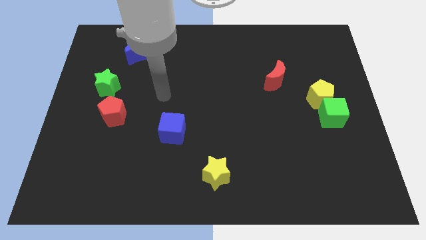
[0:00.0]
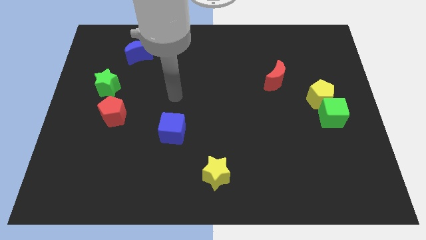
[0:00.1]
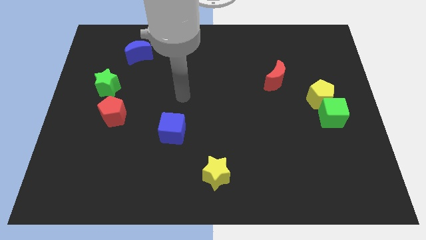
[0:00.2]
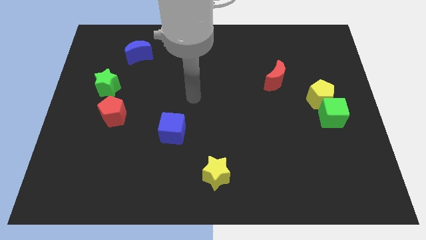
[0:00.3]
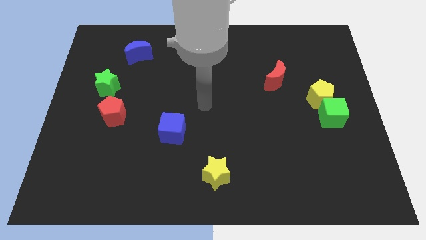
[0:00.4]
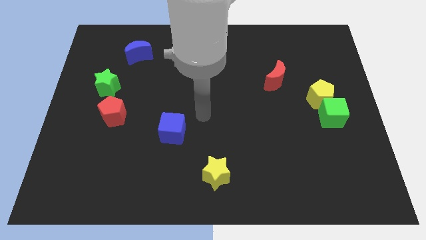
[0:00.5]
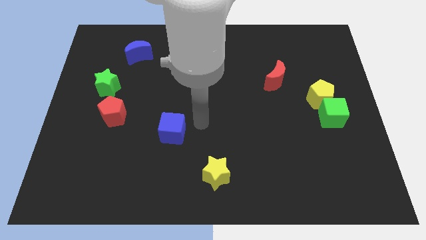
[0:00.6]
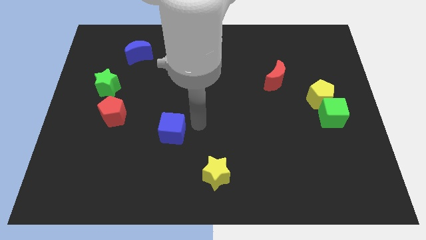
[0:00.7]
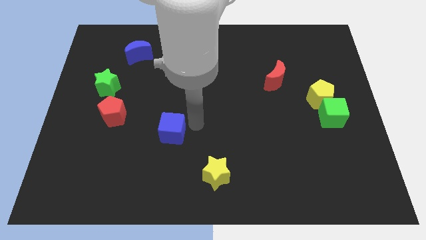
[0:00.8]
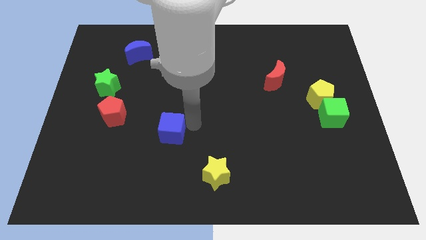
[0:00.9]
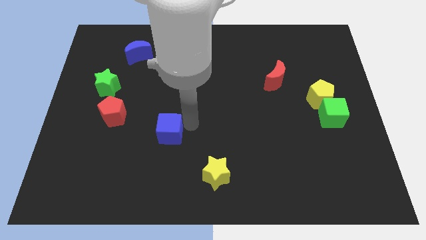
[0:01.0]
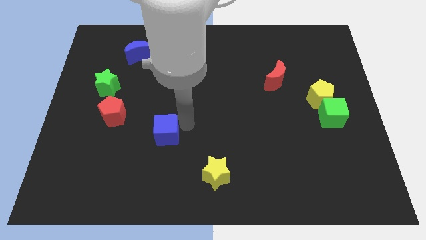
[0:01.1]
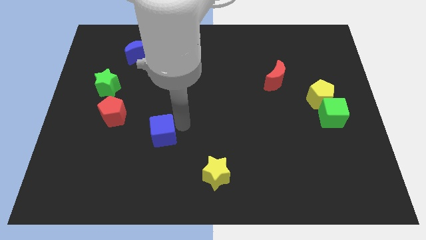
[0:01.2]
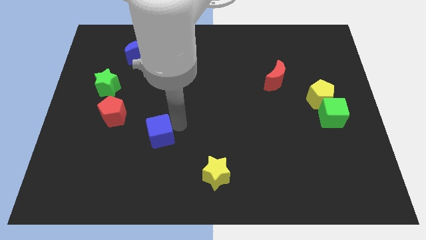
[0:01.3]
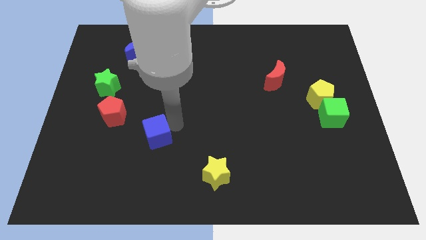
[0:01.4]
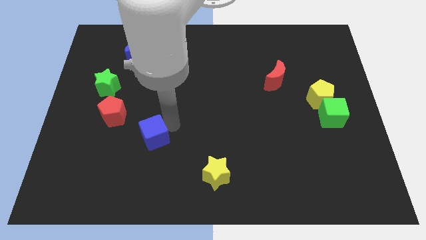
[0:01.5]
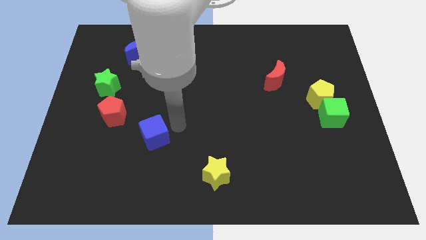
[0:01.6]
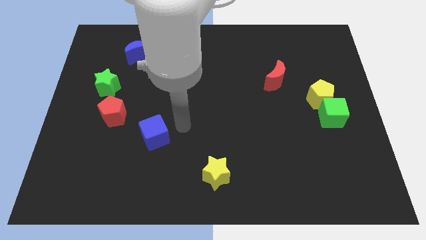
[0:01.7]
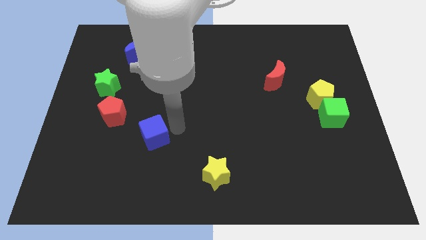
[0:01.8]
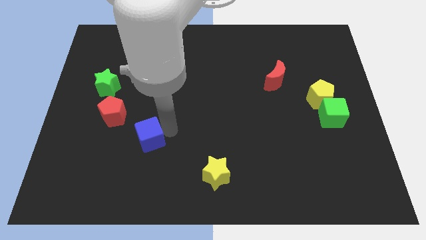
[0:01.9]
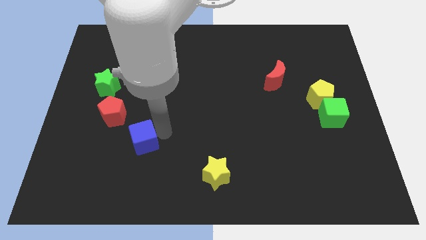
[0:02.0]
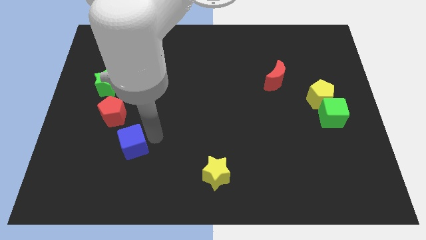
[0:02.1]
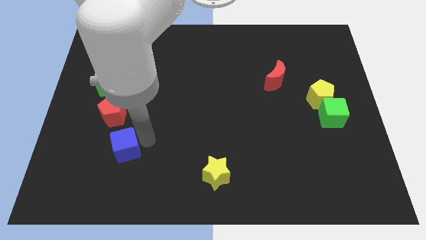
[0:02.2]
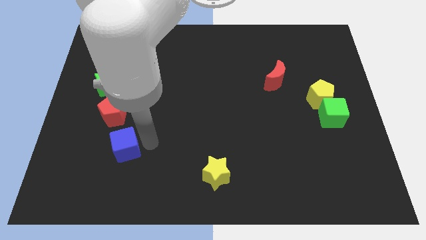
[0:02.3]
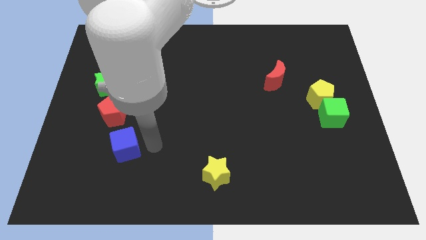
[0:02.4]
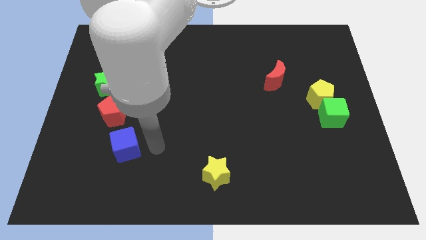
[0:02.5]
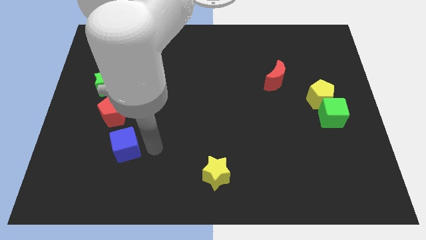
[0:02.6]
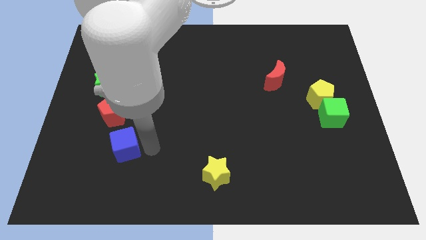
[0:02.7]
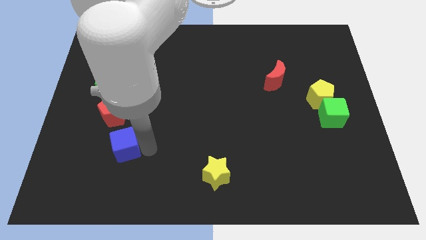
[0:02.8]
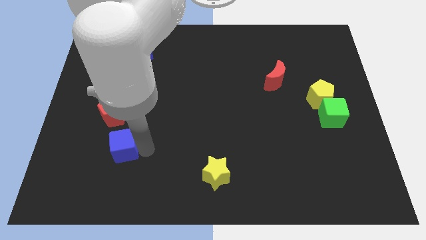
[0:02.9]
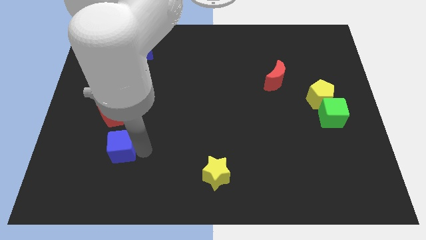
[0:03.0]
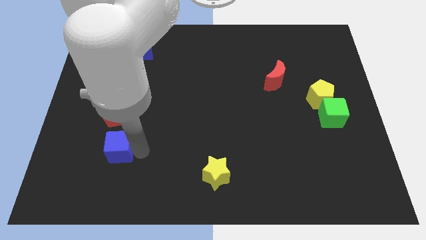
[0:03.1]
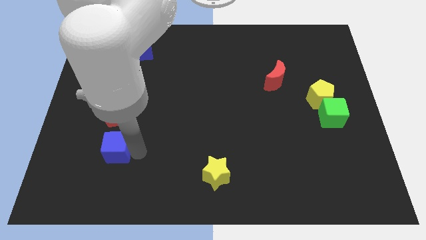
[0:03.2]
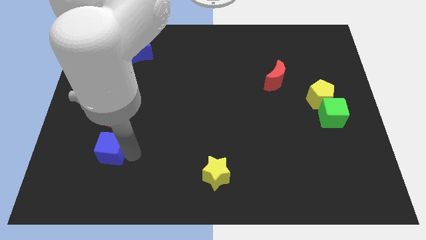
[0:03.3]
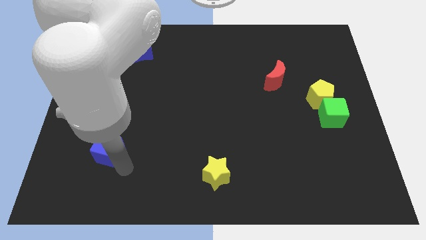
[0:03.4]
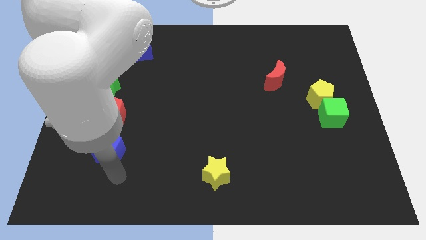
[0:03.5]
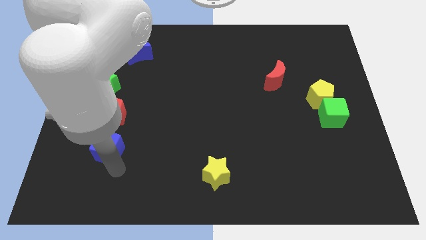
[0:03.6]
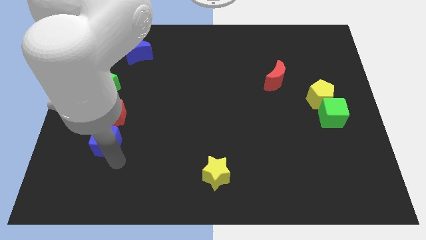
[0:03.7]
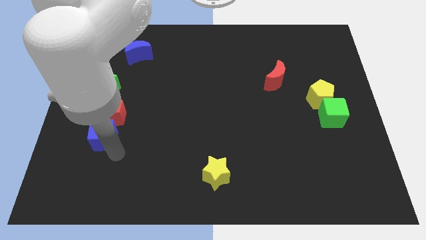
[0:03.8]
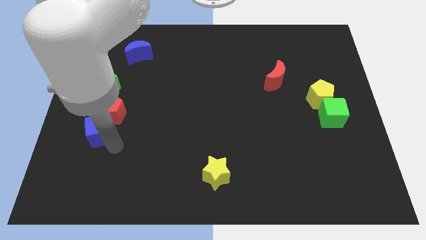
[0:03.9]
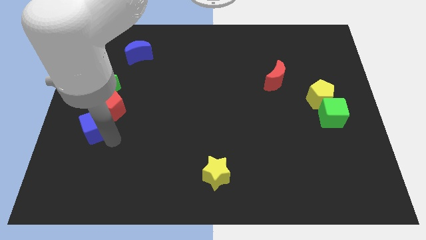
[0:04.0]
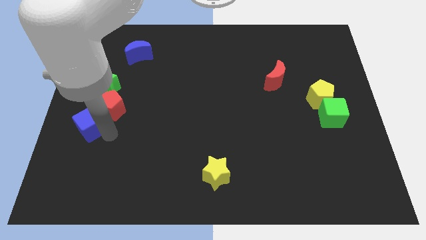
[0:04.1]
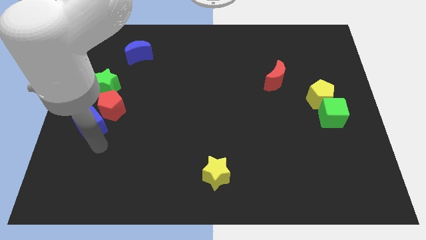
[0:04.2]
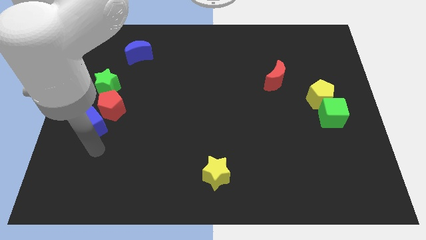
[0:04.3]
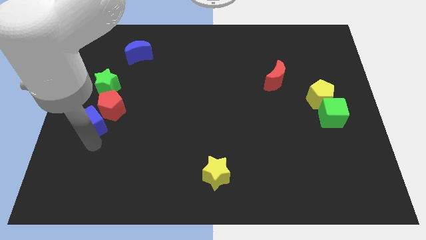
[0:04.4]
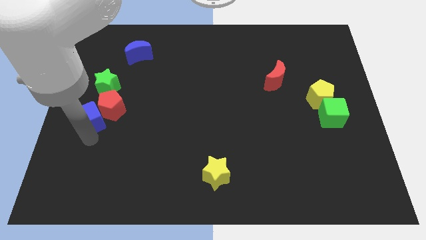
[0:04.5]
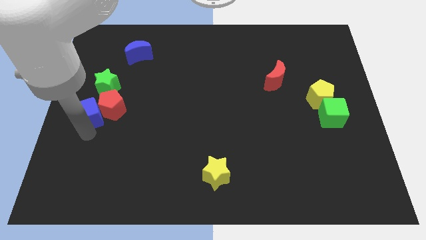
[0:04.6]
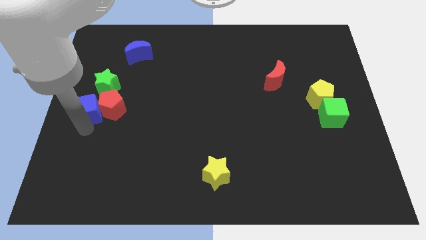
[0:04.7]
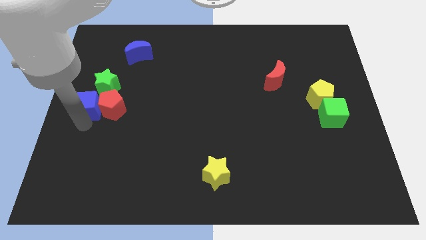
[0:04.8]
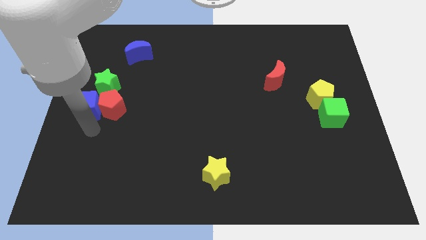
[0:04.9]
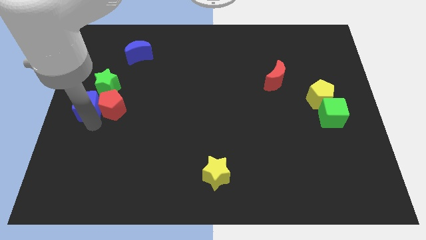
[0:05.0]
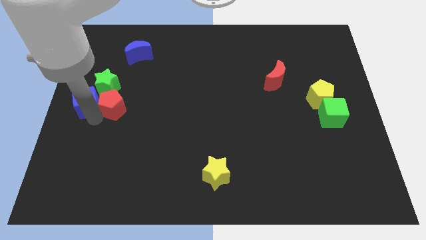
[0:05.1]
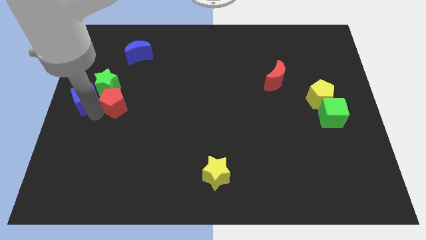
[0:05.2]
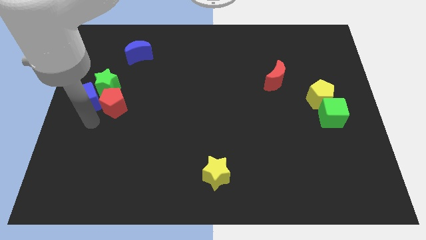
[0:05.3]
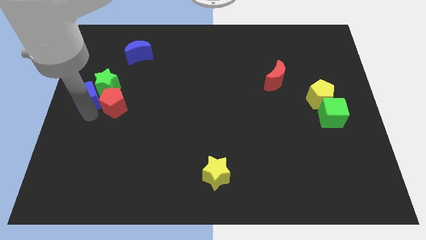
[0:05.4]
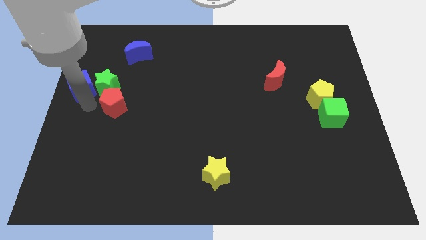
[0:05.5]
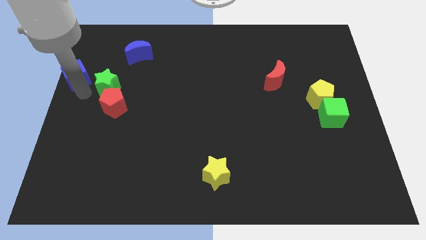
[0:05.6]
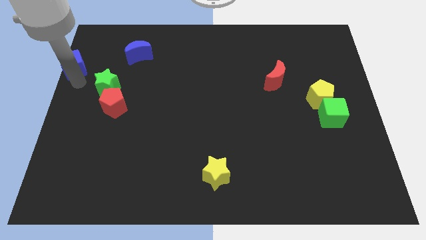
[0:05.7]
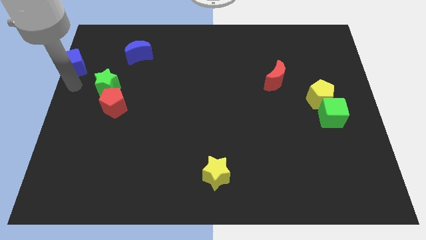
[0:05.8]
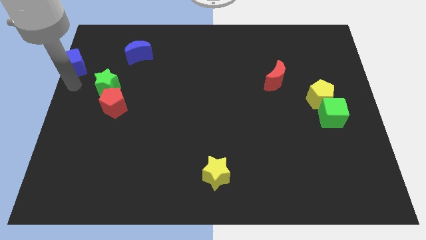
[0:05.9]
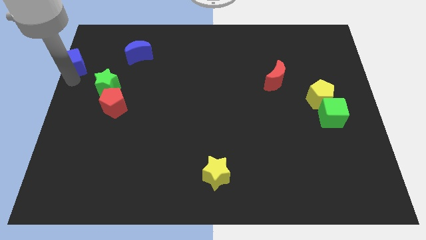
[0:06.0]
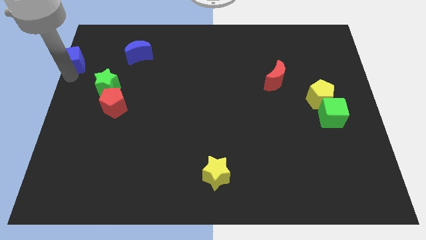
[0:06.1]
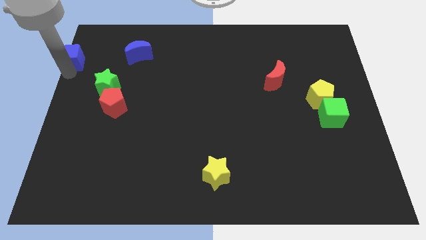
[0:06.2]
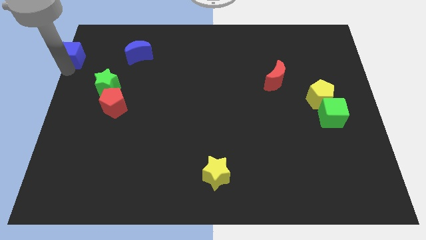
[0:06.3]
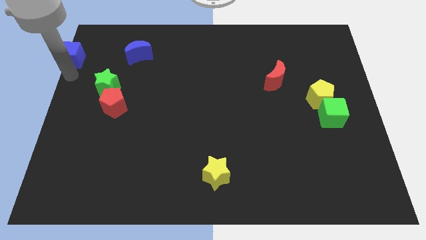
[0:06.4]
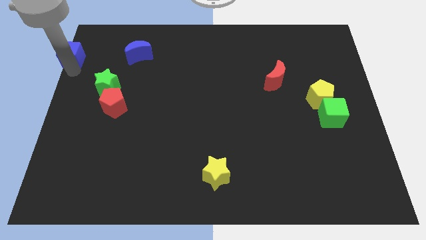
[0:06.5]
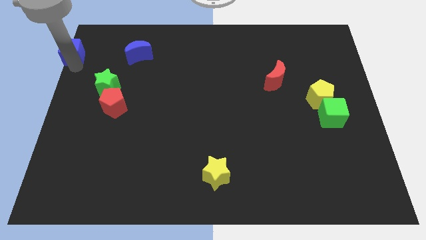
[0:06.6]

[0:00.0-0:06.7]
slide the blue cube to the upper left corner
